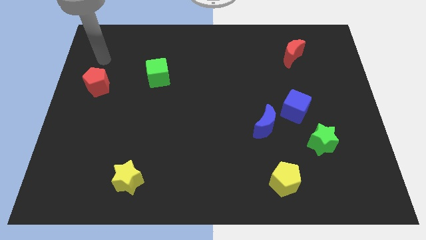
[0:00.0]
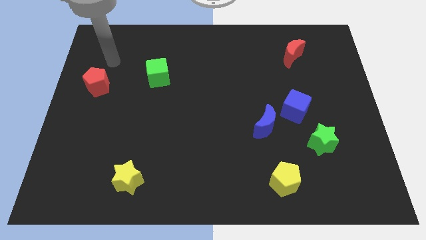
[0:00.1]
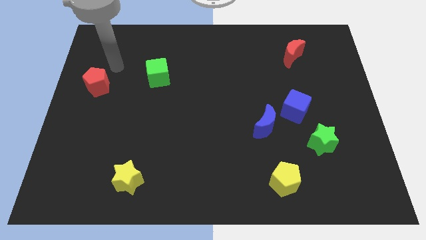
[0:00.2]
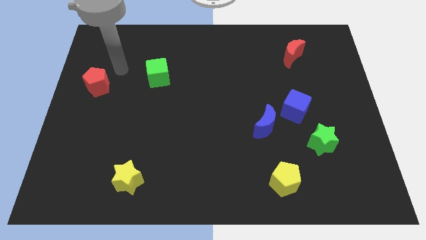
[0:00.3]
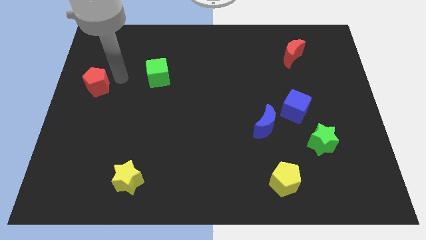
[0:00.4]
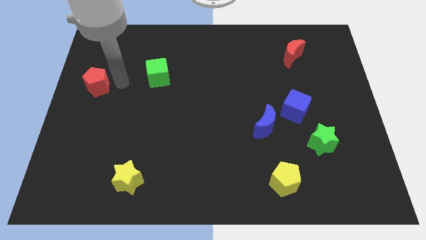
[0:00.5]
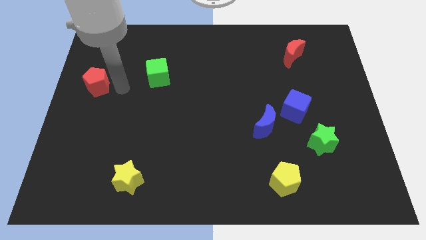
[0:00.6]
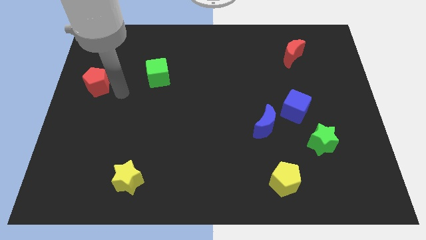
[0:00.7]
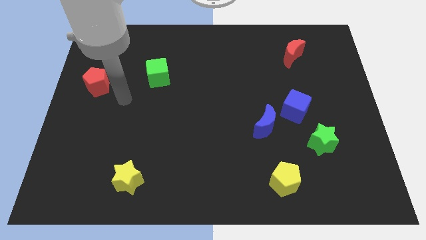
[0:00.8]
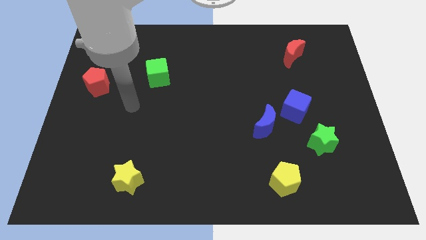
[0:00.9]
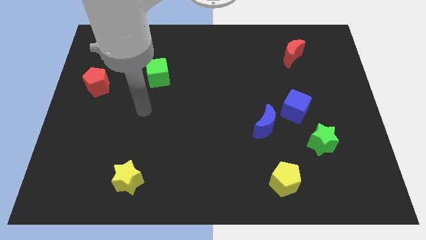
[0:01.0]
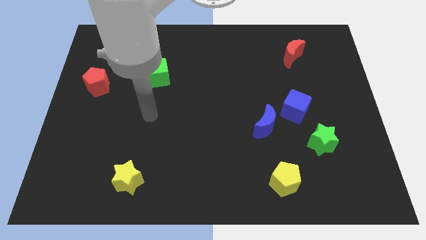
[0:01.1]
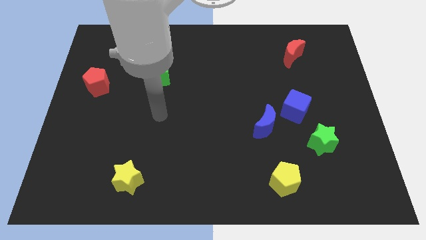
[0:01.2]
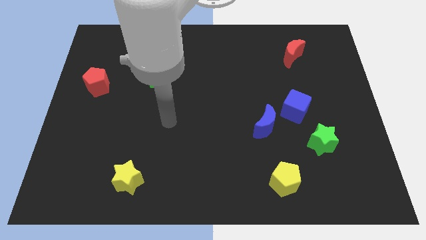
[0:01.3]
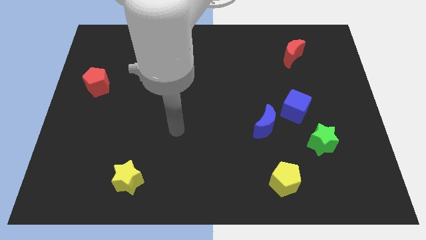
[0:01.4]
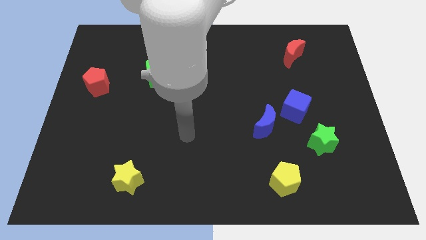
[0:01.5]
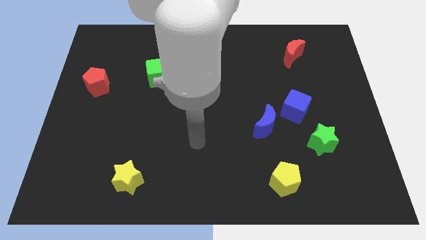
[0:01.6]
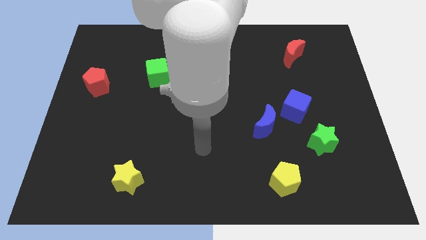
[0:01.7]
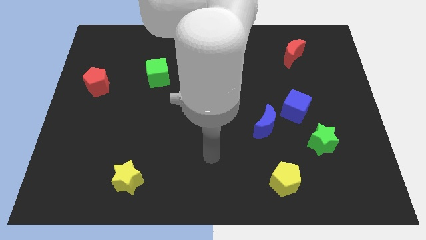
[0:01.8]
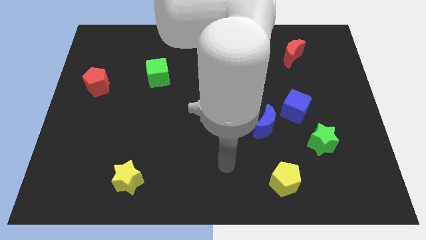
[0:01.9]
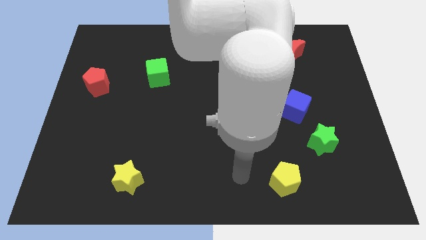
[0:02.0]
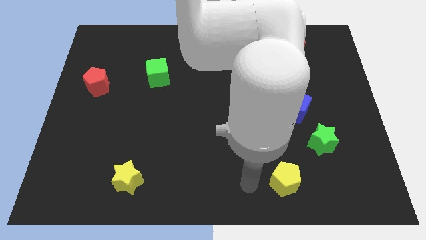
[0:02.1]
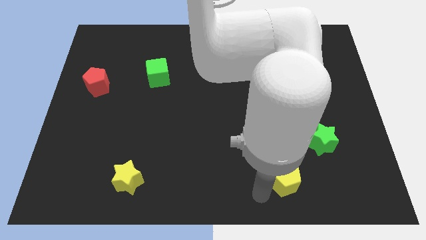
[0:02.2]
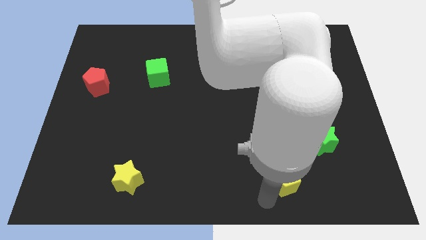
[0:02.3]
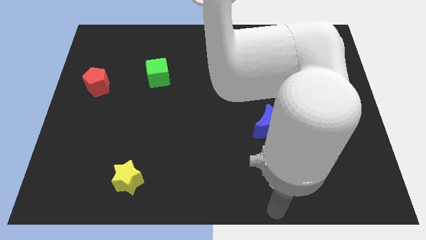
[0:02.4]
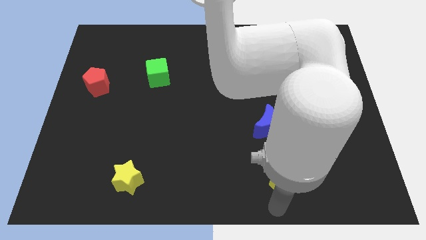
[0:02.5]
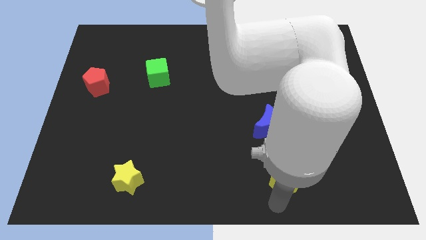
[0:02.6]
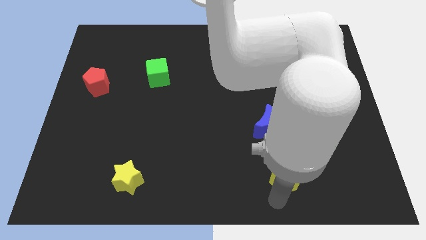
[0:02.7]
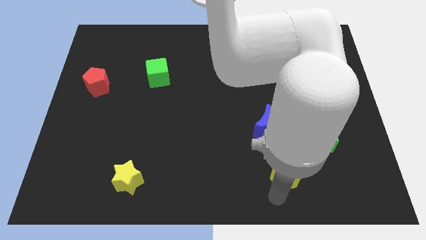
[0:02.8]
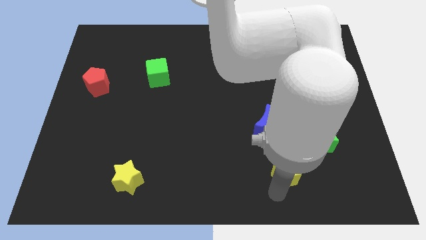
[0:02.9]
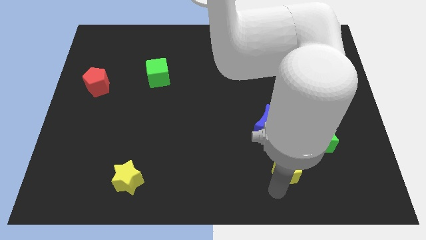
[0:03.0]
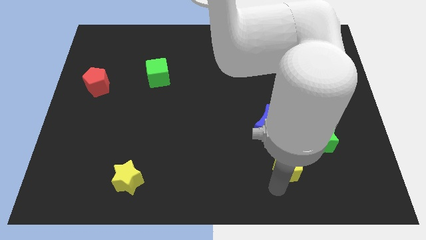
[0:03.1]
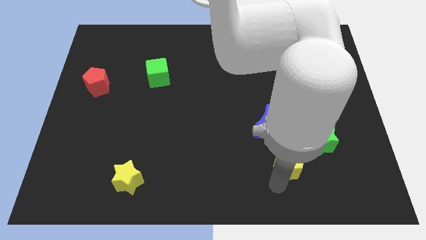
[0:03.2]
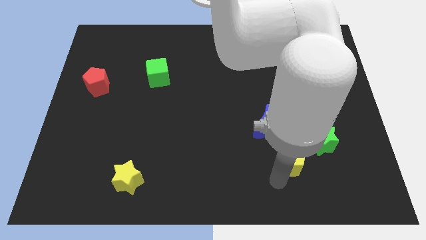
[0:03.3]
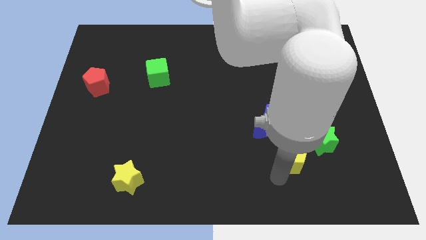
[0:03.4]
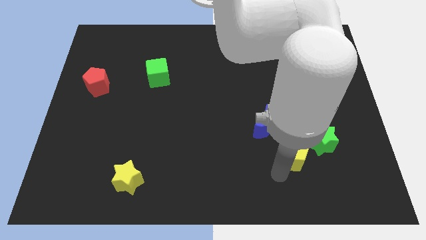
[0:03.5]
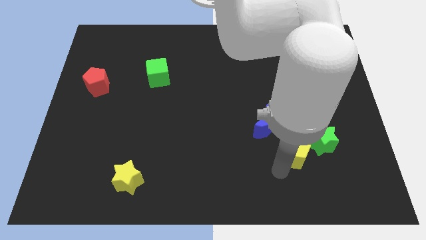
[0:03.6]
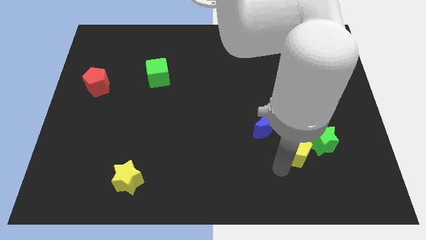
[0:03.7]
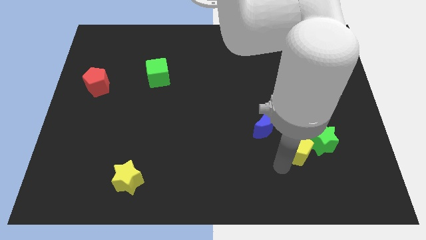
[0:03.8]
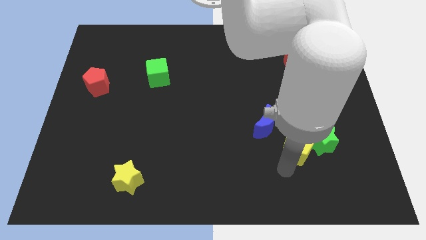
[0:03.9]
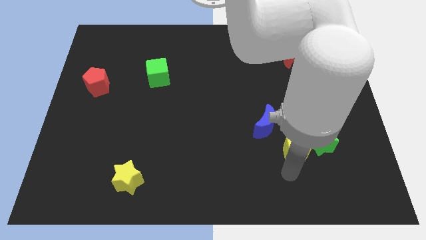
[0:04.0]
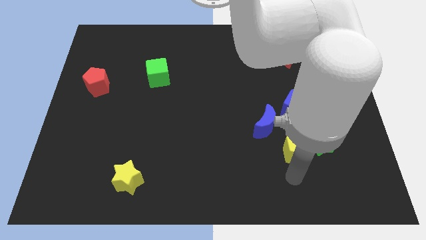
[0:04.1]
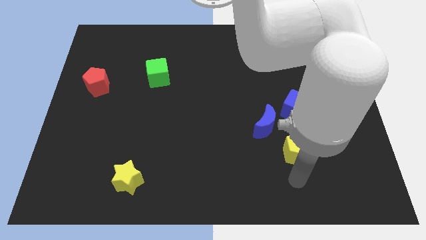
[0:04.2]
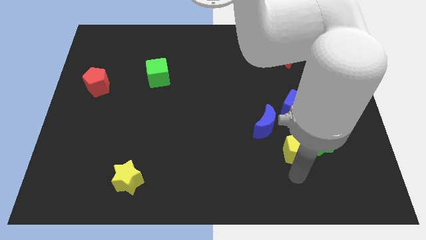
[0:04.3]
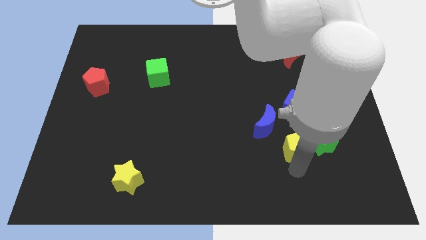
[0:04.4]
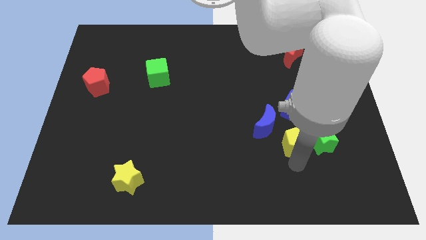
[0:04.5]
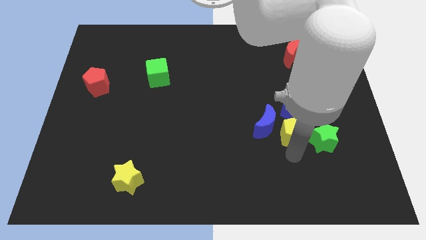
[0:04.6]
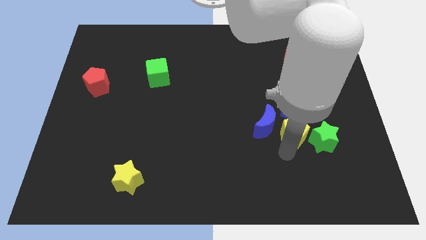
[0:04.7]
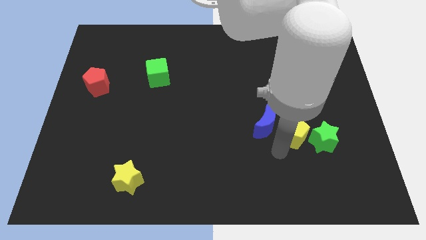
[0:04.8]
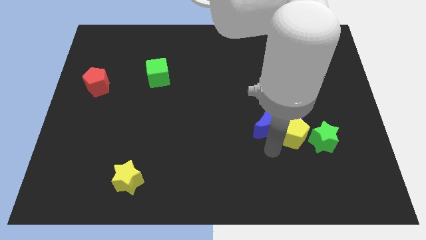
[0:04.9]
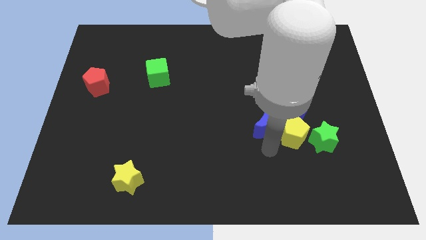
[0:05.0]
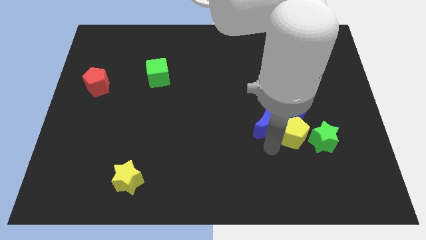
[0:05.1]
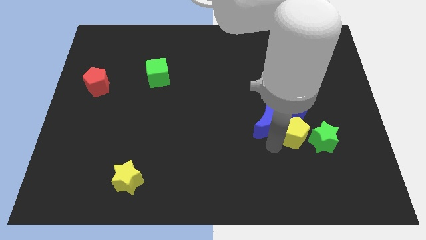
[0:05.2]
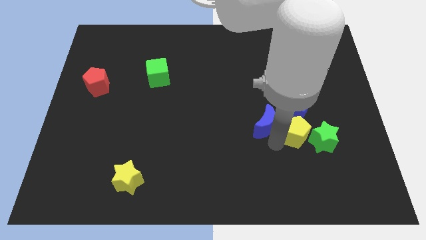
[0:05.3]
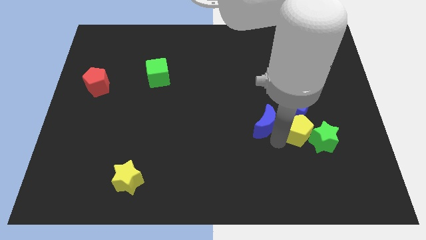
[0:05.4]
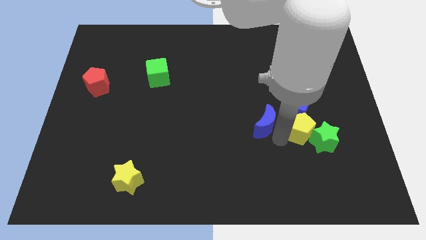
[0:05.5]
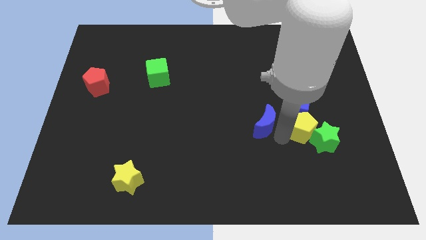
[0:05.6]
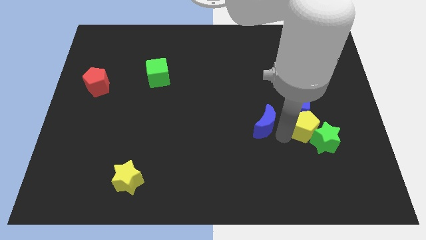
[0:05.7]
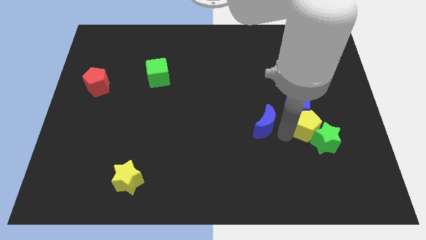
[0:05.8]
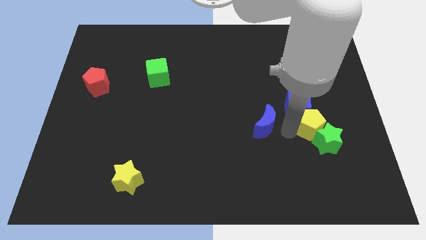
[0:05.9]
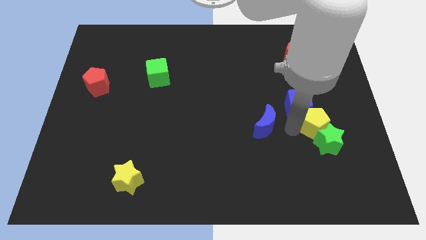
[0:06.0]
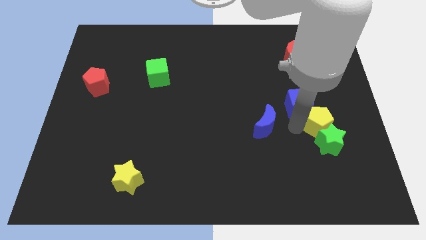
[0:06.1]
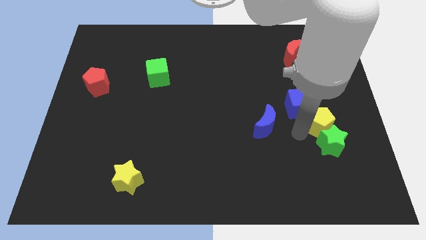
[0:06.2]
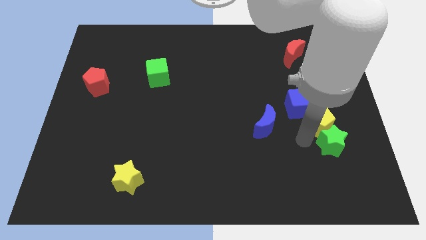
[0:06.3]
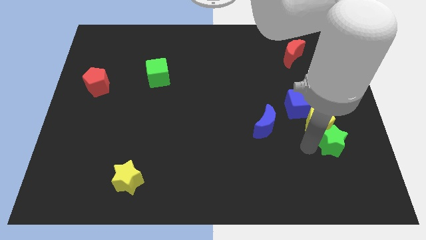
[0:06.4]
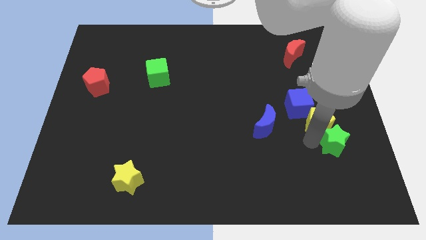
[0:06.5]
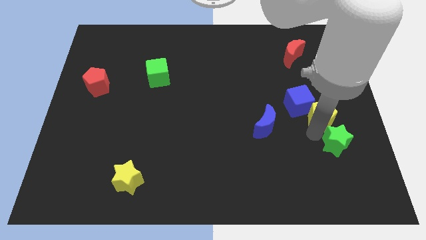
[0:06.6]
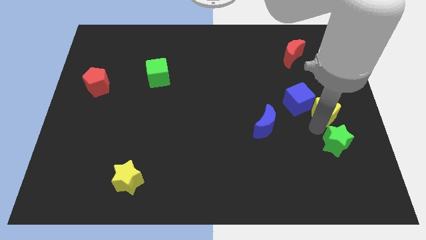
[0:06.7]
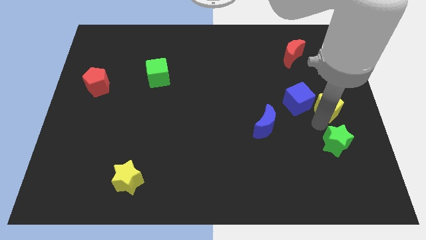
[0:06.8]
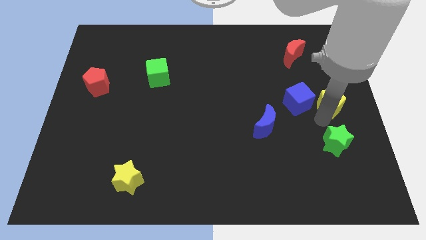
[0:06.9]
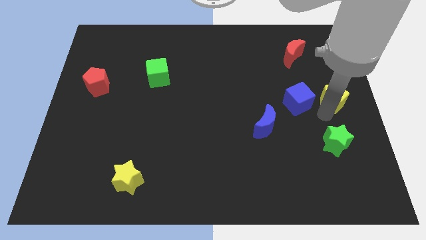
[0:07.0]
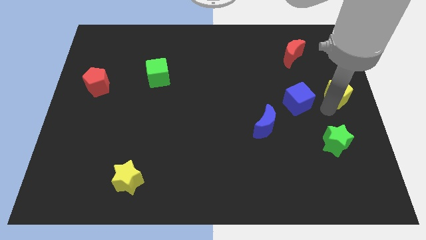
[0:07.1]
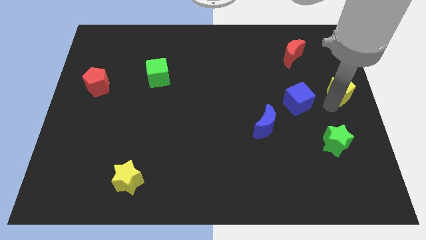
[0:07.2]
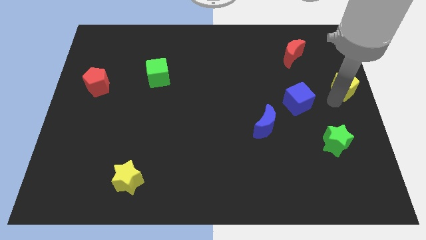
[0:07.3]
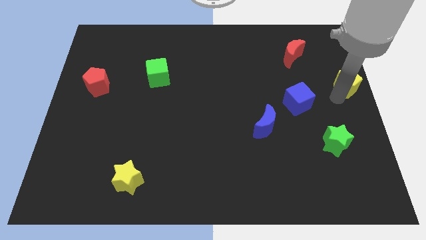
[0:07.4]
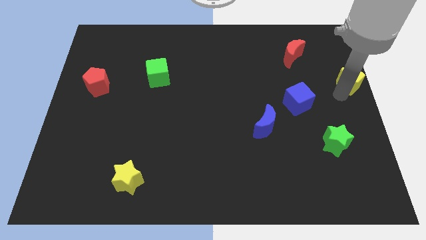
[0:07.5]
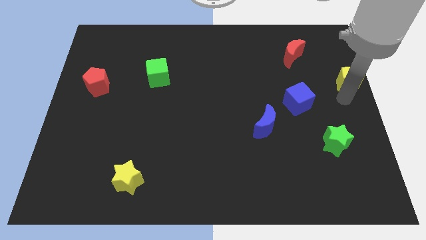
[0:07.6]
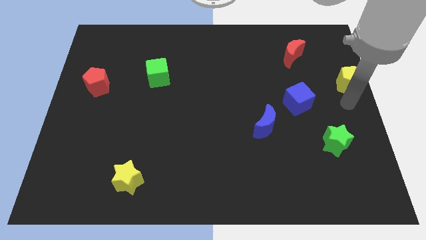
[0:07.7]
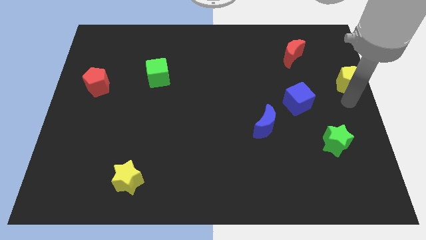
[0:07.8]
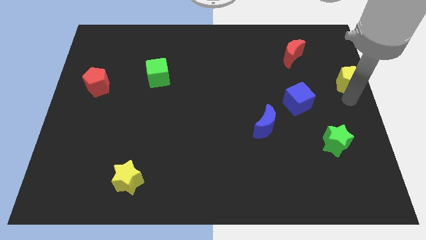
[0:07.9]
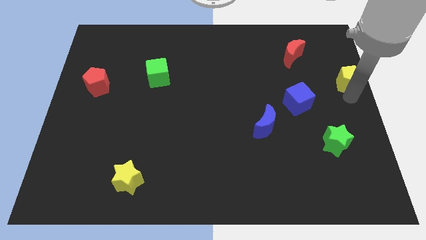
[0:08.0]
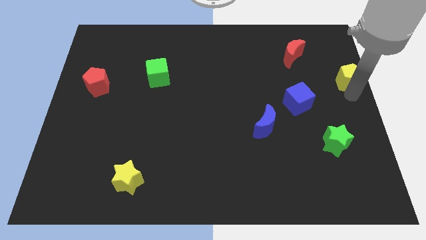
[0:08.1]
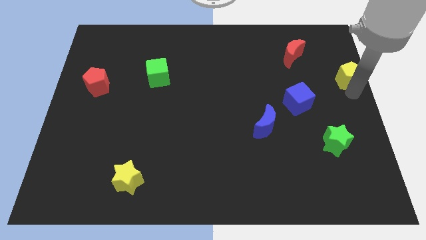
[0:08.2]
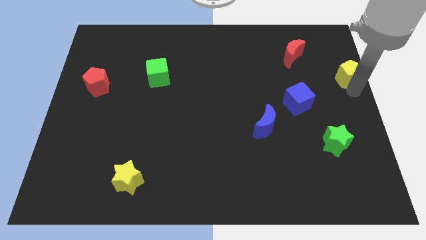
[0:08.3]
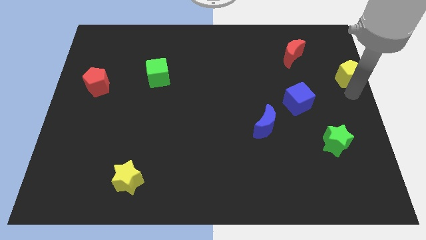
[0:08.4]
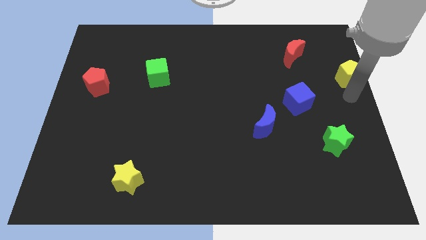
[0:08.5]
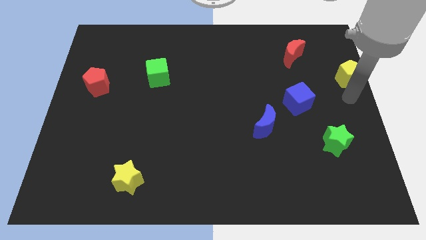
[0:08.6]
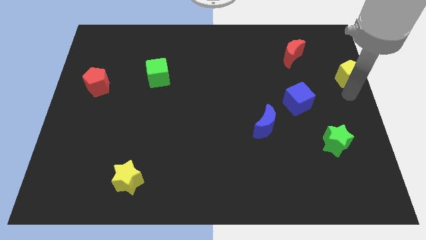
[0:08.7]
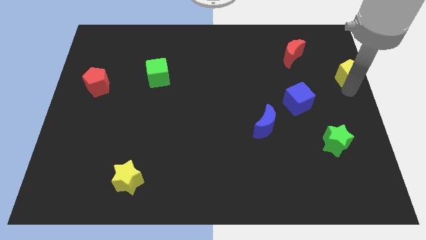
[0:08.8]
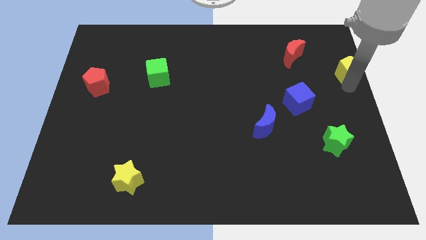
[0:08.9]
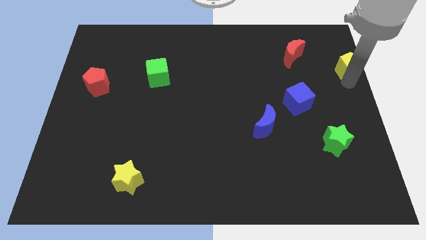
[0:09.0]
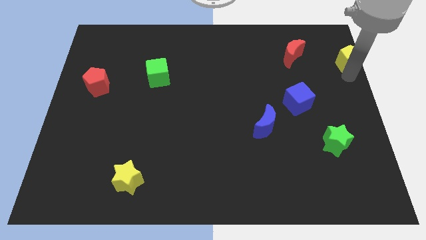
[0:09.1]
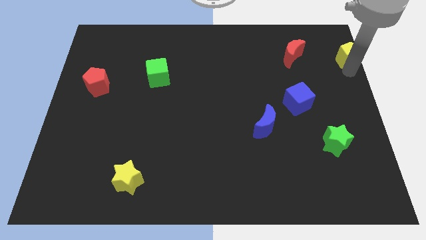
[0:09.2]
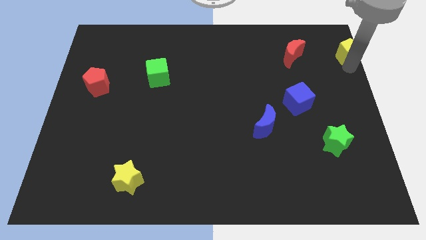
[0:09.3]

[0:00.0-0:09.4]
push the yellow pentagon to the upper right corner
